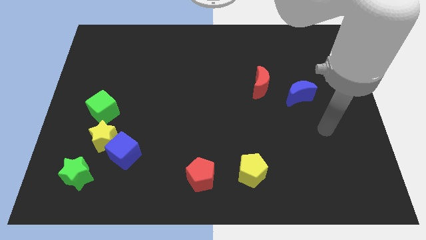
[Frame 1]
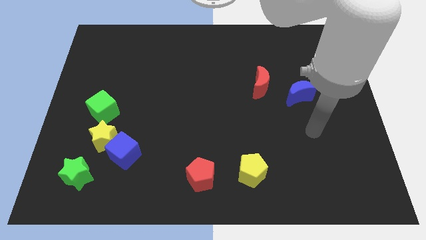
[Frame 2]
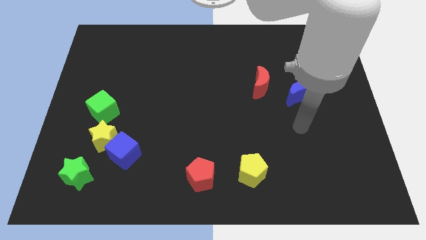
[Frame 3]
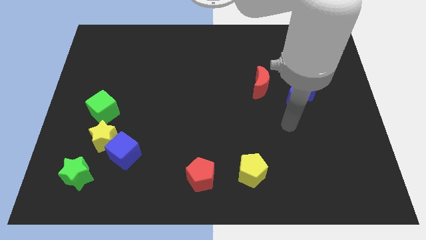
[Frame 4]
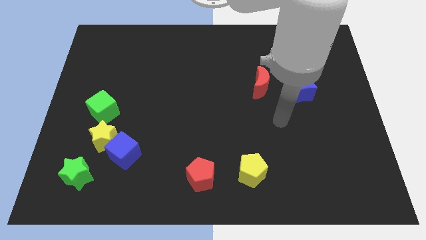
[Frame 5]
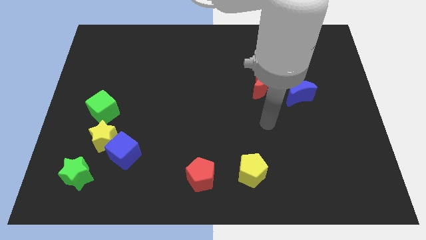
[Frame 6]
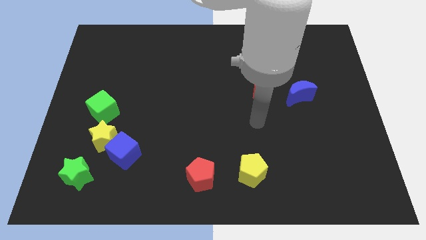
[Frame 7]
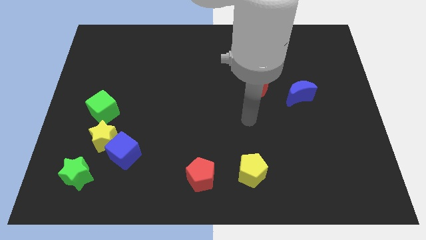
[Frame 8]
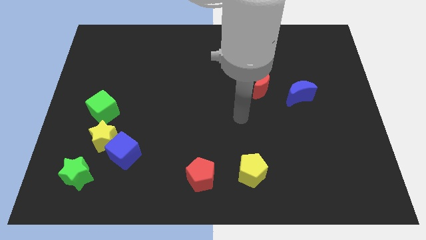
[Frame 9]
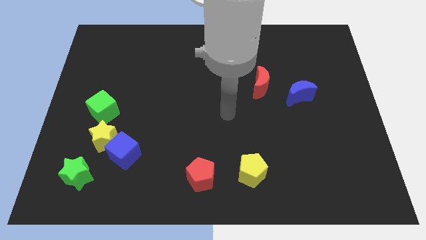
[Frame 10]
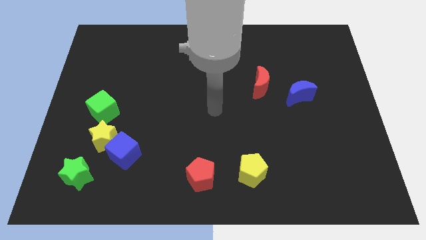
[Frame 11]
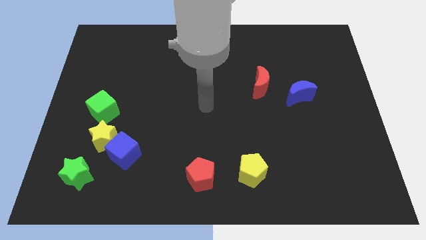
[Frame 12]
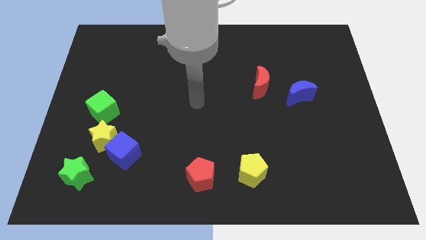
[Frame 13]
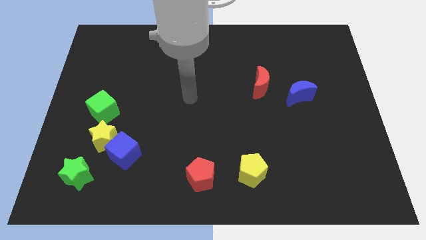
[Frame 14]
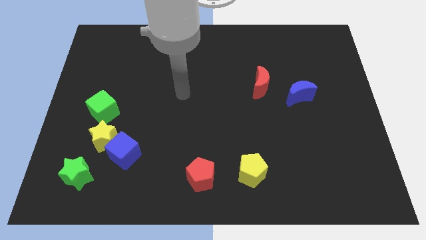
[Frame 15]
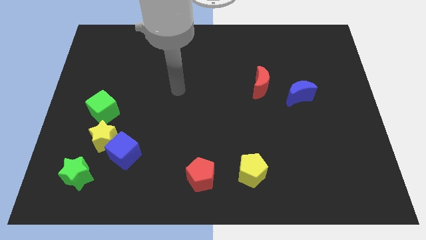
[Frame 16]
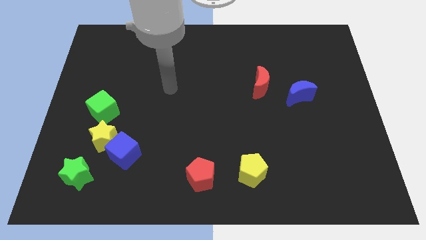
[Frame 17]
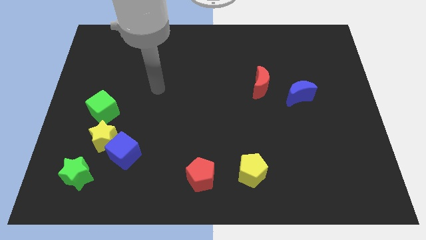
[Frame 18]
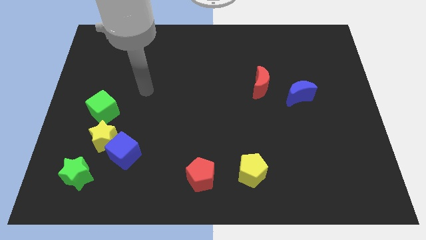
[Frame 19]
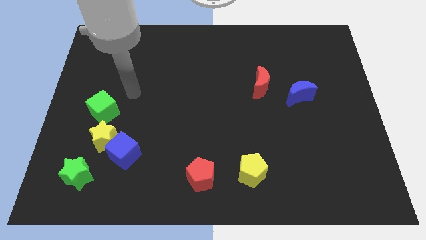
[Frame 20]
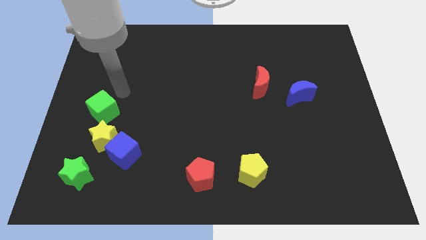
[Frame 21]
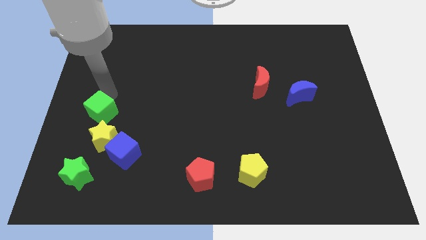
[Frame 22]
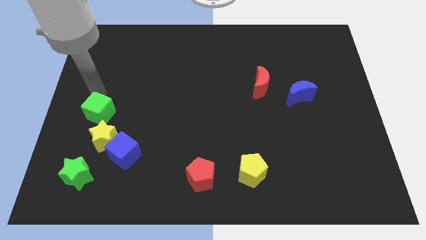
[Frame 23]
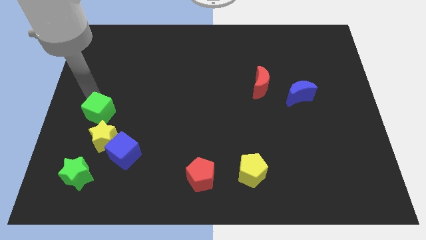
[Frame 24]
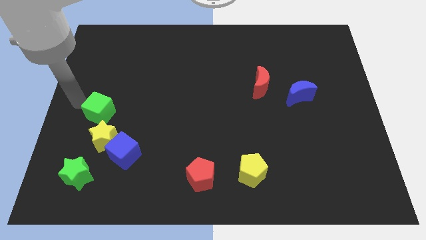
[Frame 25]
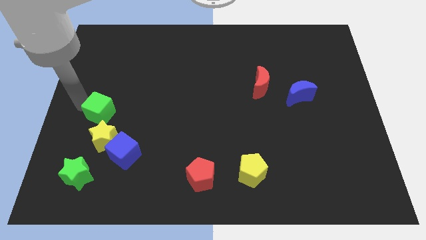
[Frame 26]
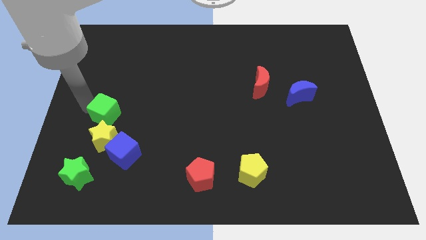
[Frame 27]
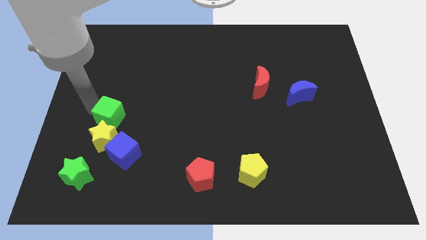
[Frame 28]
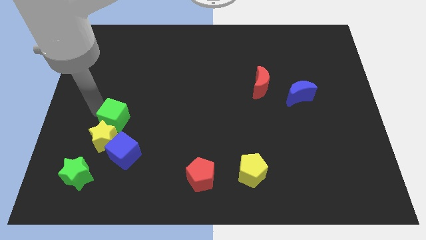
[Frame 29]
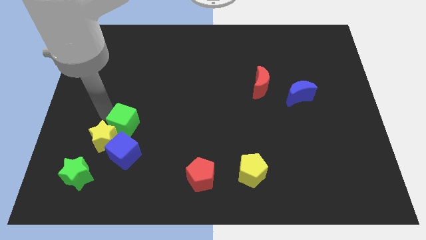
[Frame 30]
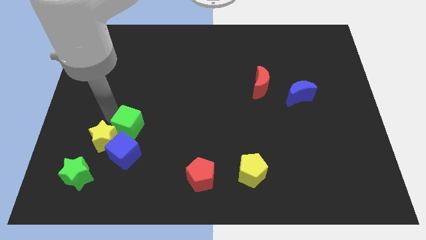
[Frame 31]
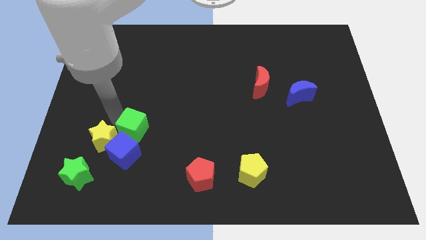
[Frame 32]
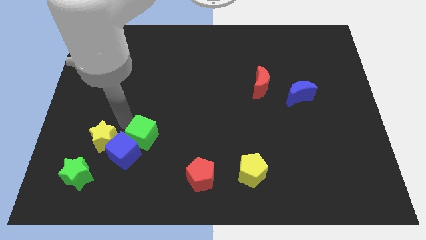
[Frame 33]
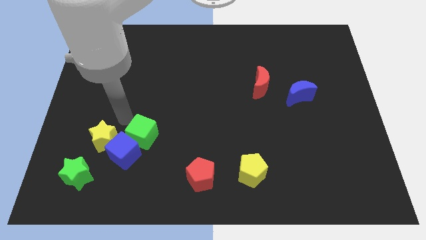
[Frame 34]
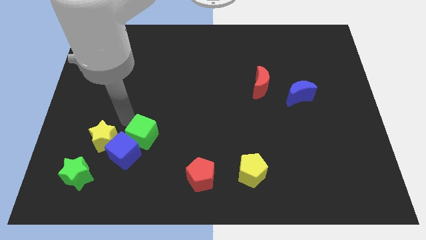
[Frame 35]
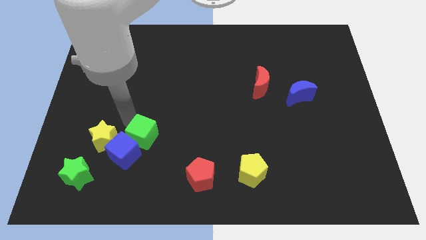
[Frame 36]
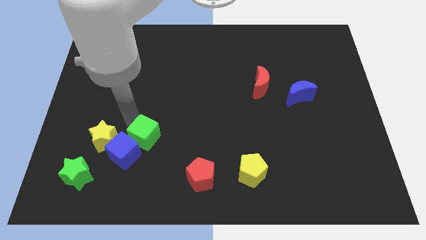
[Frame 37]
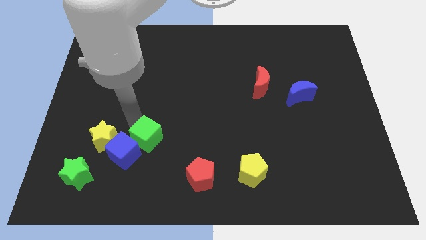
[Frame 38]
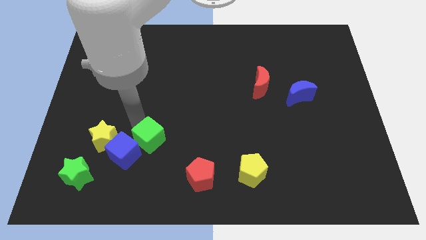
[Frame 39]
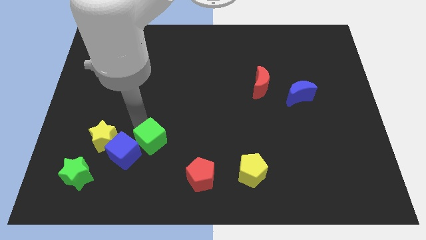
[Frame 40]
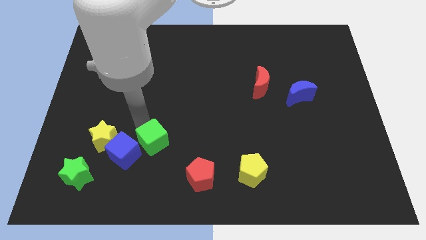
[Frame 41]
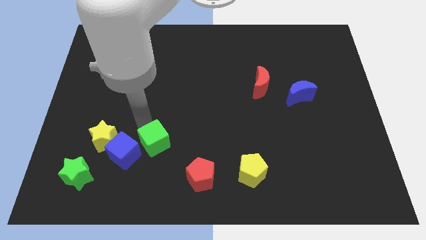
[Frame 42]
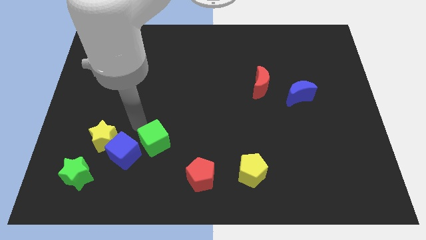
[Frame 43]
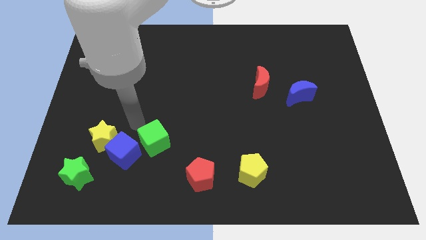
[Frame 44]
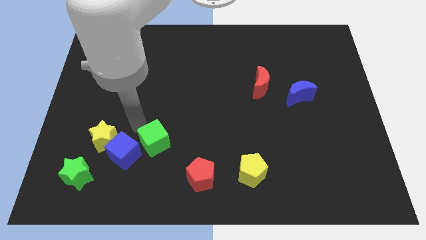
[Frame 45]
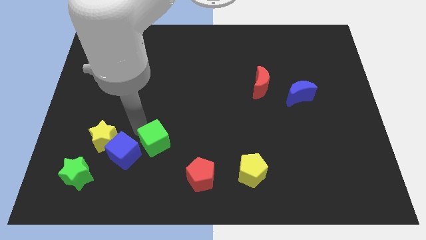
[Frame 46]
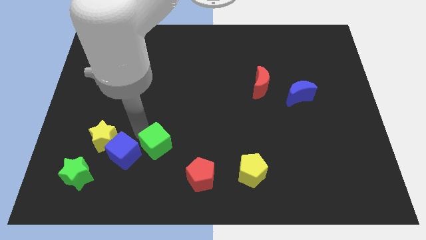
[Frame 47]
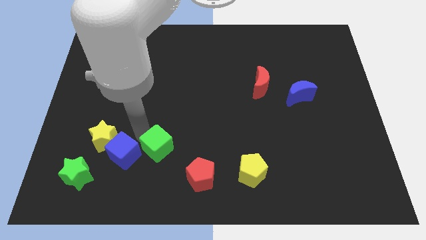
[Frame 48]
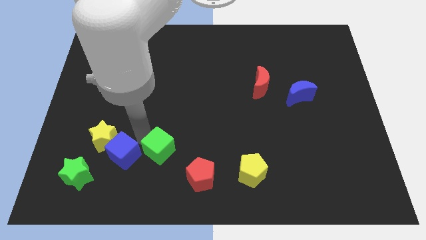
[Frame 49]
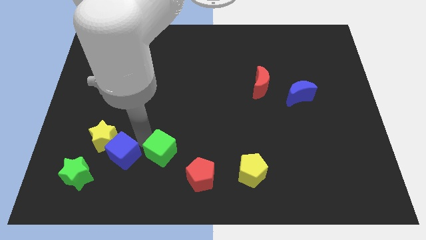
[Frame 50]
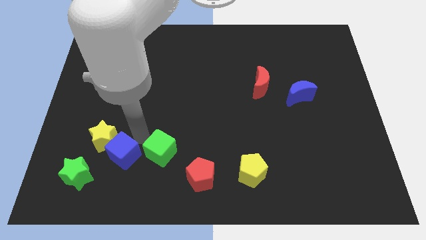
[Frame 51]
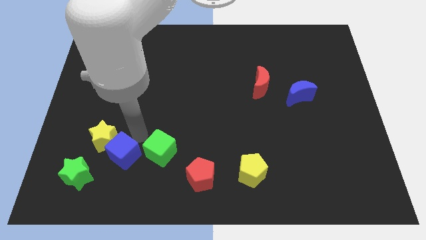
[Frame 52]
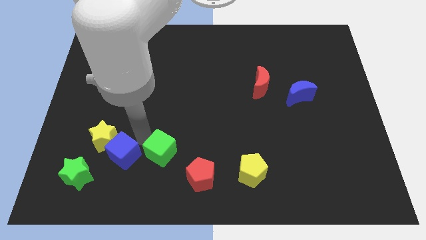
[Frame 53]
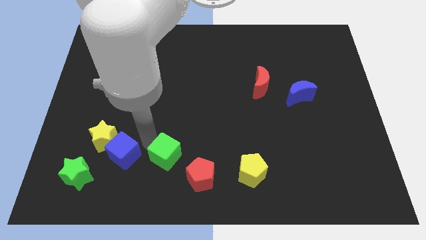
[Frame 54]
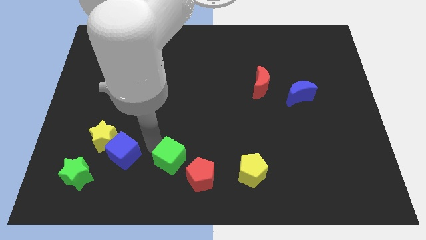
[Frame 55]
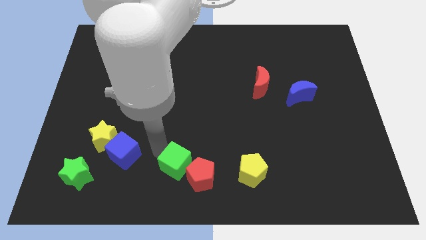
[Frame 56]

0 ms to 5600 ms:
push the green cube left of the yellow pentagon

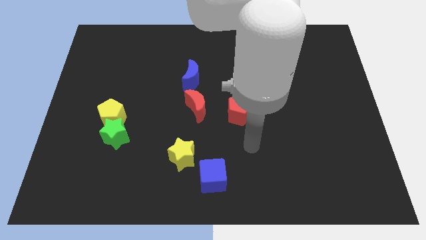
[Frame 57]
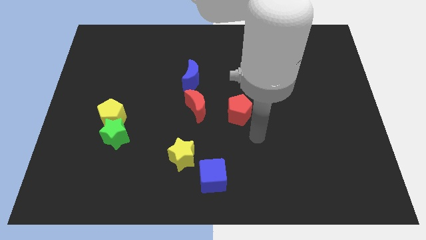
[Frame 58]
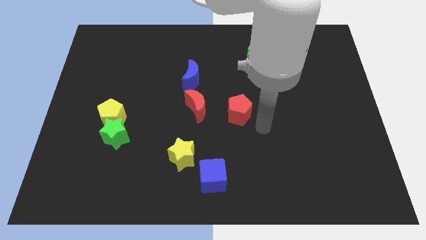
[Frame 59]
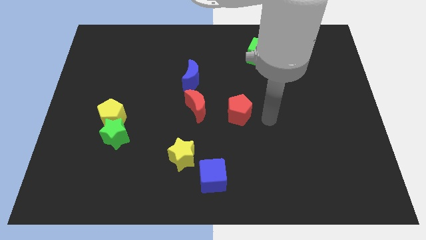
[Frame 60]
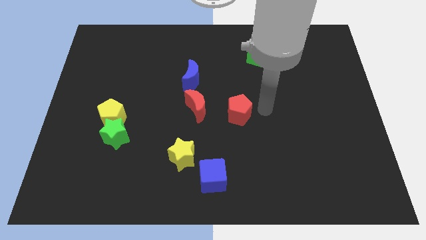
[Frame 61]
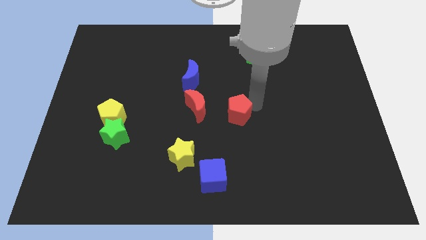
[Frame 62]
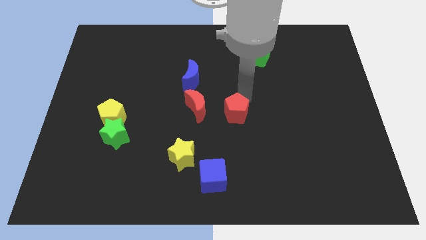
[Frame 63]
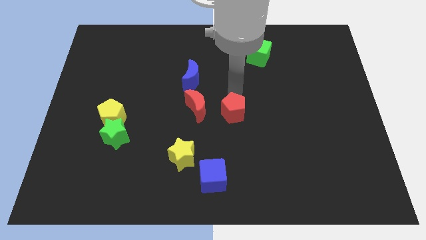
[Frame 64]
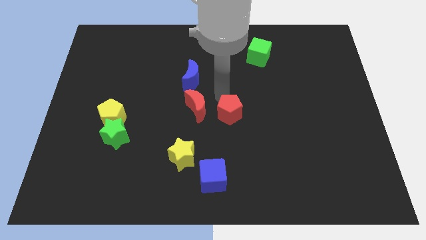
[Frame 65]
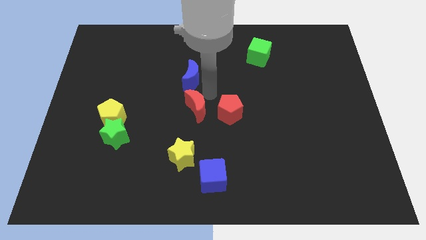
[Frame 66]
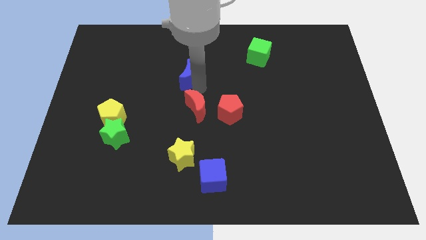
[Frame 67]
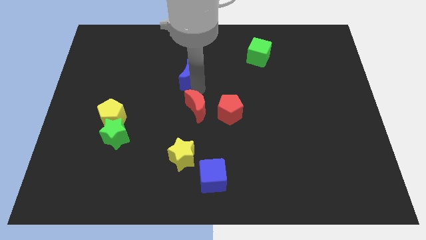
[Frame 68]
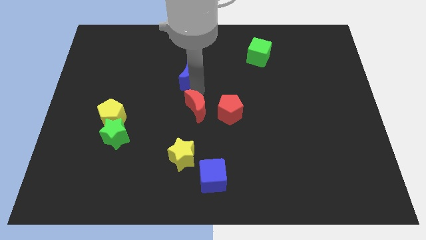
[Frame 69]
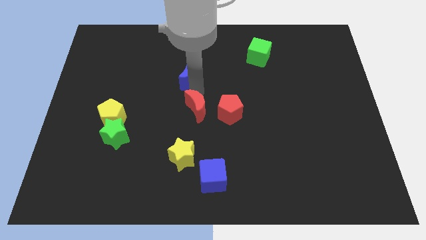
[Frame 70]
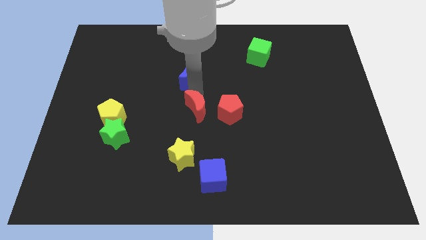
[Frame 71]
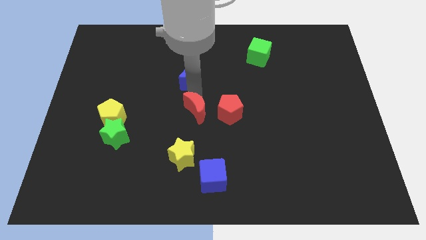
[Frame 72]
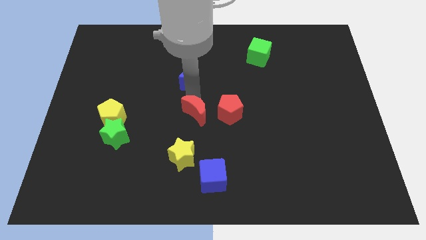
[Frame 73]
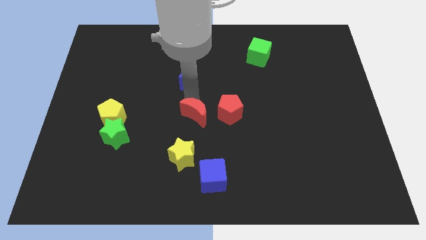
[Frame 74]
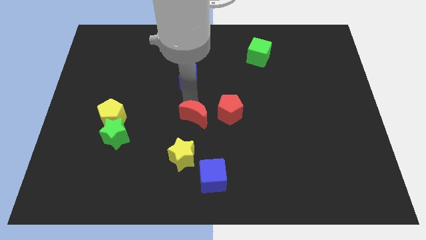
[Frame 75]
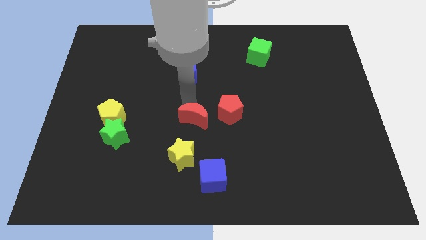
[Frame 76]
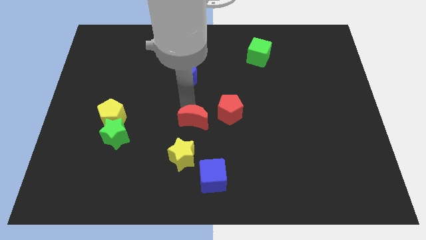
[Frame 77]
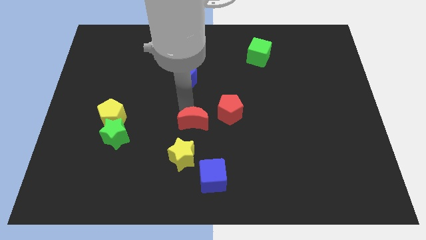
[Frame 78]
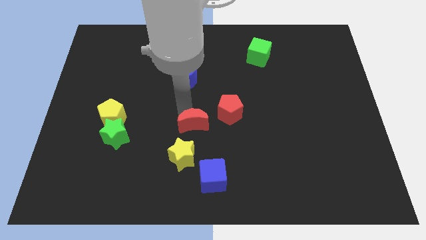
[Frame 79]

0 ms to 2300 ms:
push the red moon to the top right side of the yellow star
